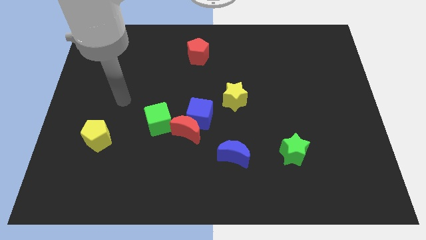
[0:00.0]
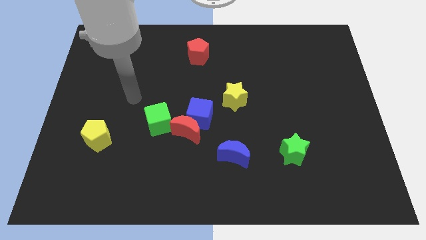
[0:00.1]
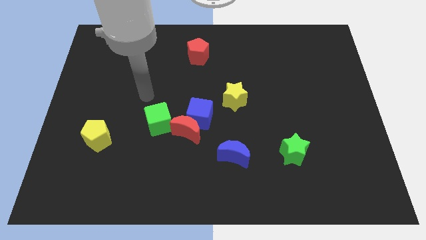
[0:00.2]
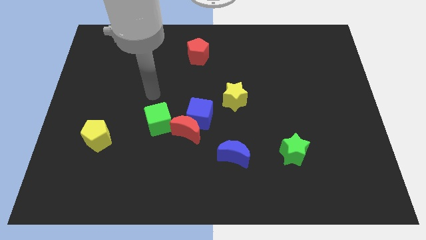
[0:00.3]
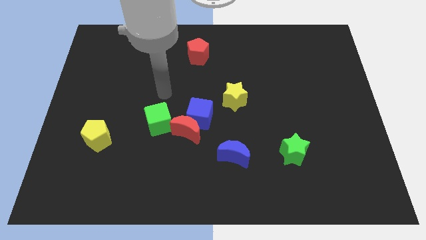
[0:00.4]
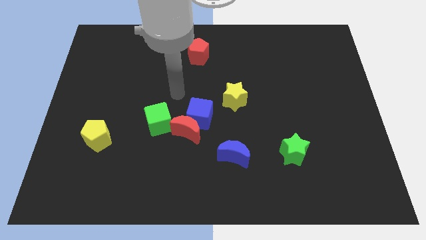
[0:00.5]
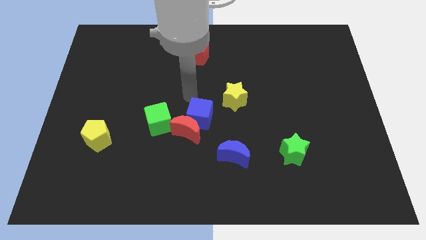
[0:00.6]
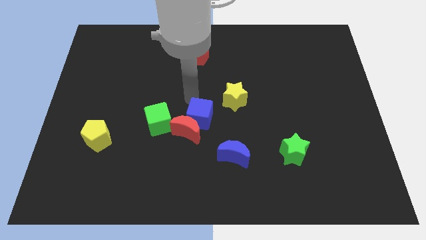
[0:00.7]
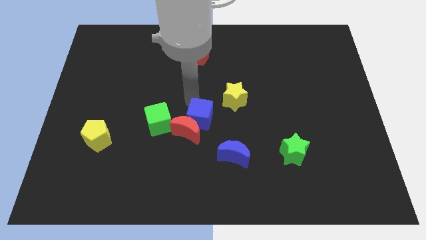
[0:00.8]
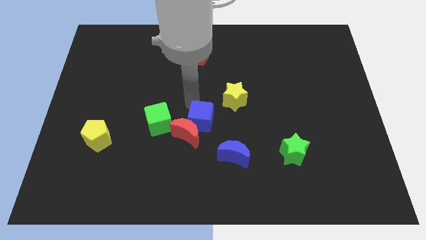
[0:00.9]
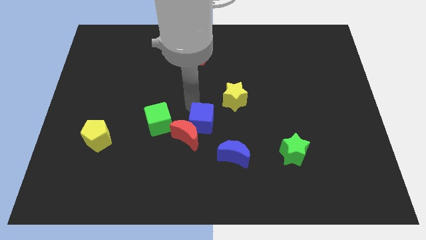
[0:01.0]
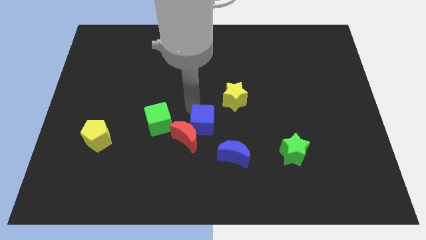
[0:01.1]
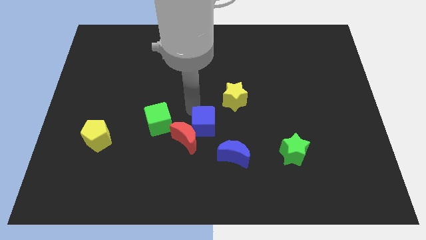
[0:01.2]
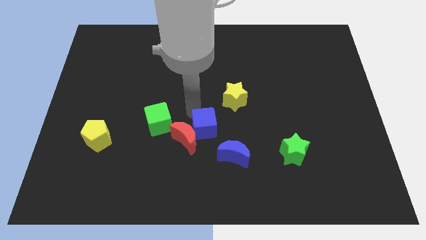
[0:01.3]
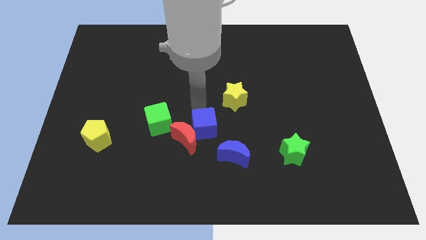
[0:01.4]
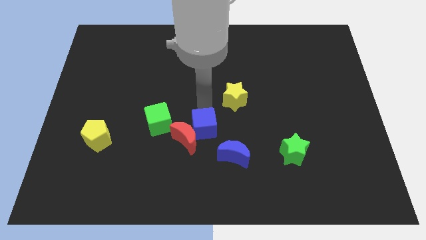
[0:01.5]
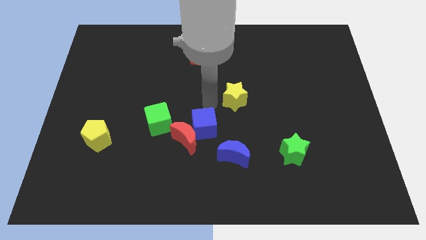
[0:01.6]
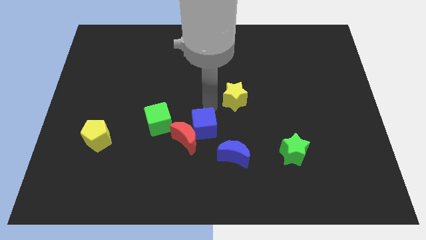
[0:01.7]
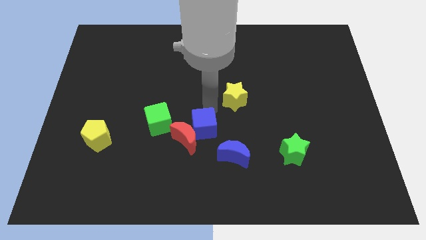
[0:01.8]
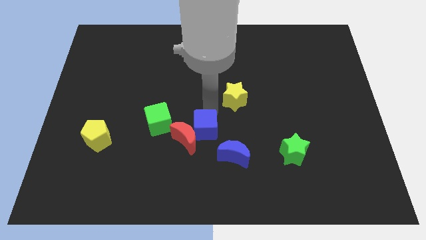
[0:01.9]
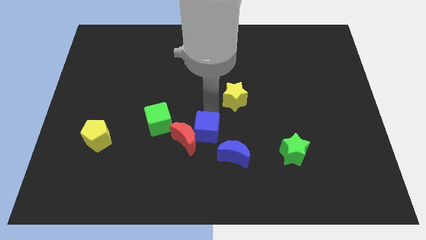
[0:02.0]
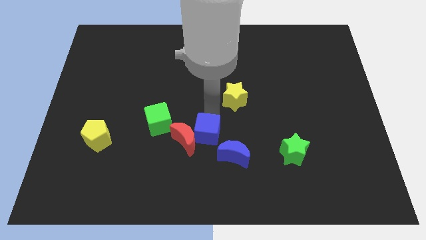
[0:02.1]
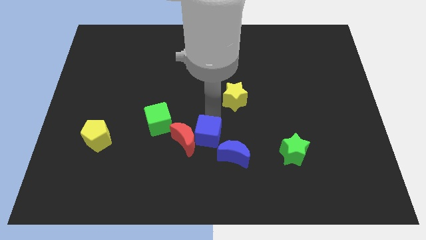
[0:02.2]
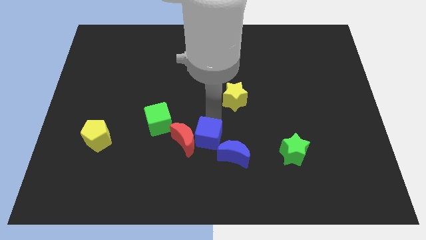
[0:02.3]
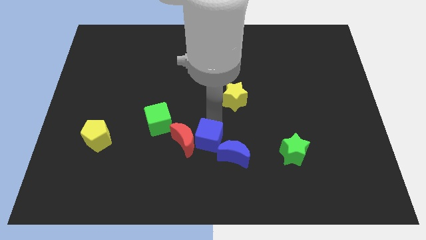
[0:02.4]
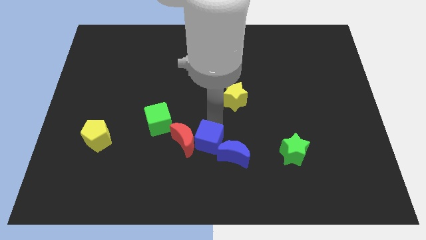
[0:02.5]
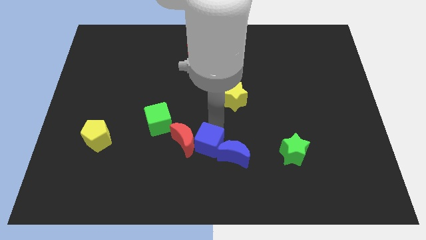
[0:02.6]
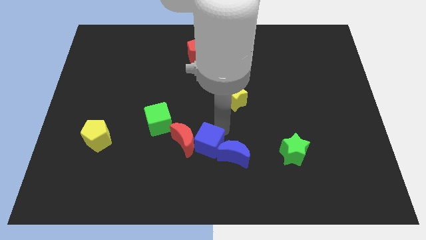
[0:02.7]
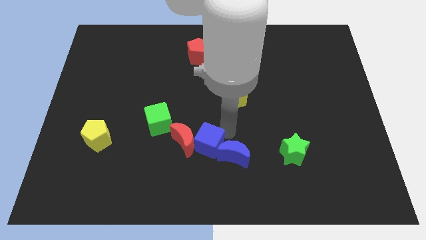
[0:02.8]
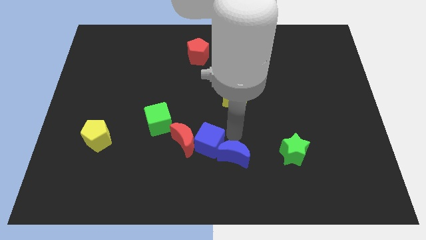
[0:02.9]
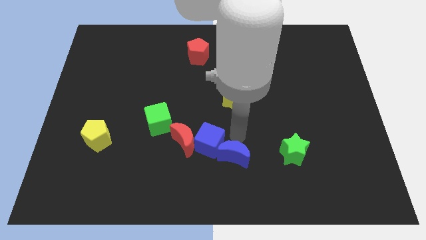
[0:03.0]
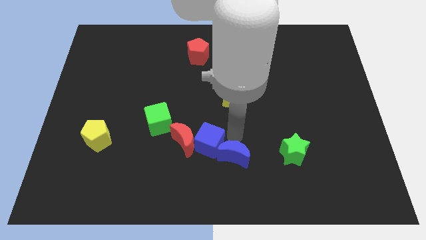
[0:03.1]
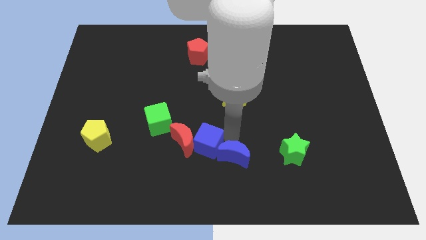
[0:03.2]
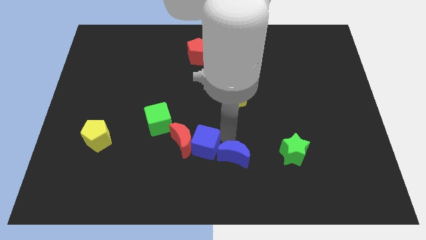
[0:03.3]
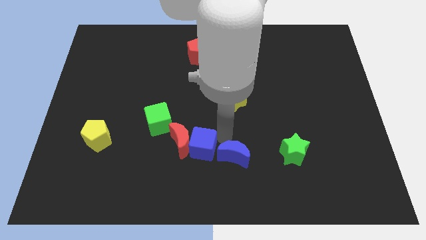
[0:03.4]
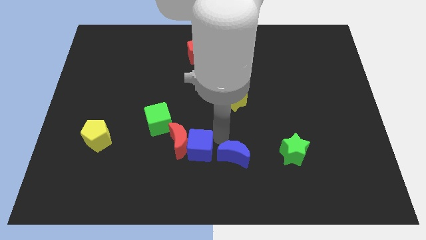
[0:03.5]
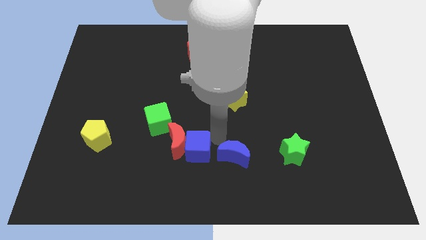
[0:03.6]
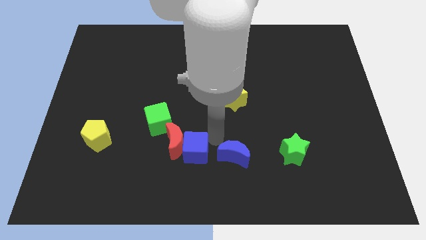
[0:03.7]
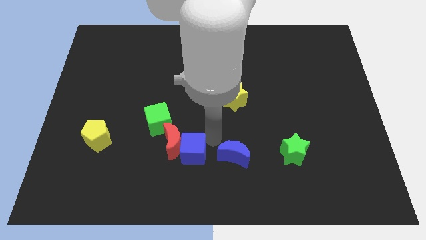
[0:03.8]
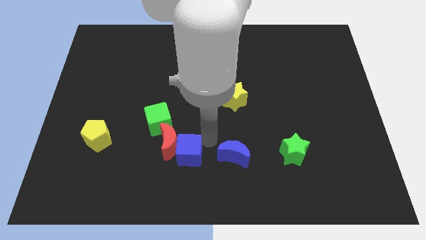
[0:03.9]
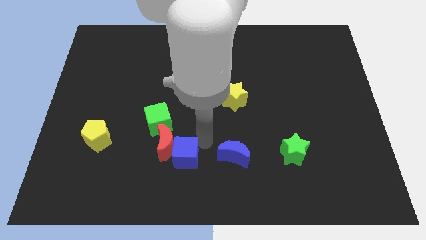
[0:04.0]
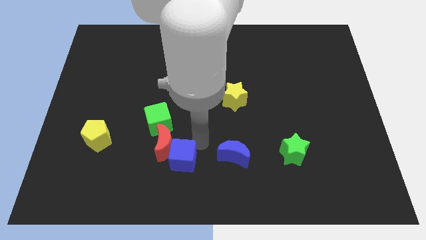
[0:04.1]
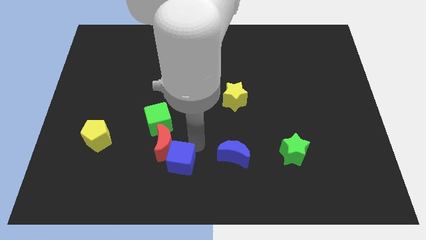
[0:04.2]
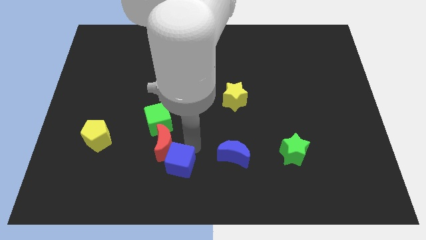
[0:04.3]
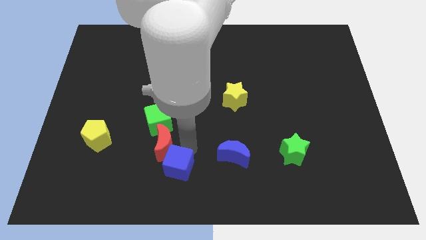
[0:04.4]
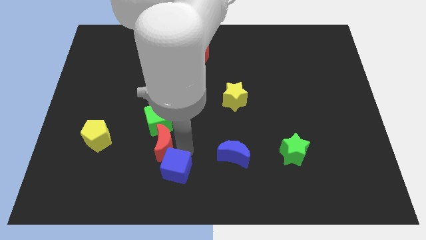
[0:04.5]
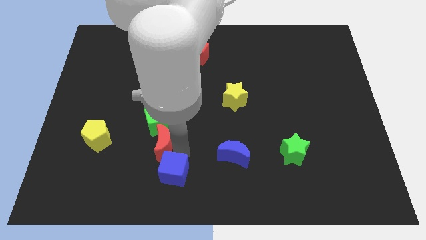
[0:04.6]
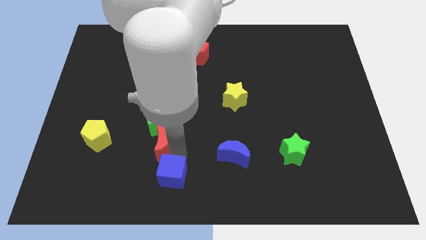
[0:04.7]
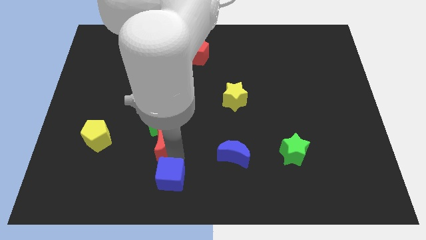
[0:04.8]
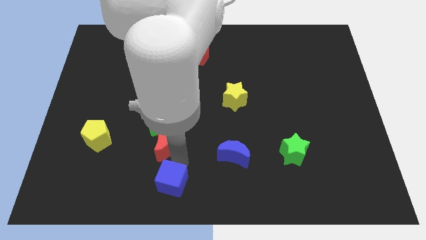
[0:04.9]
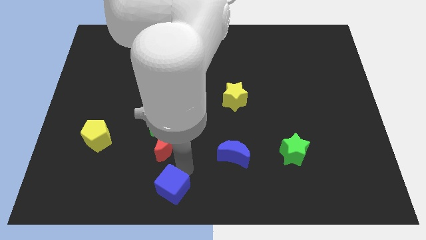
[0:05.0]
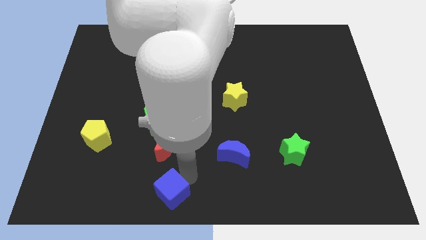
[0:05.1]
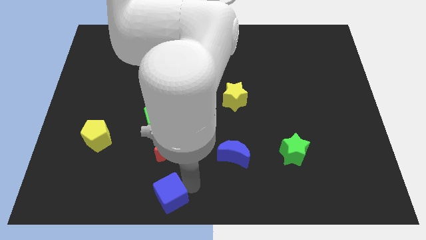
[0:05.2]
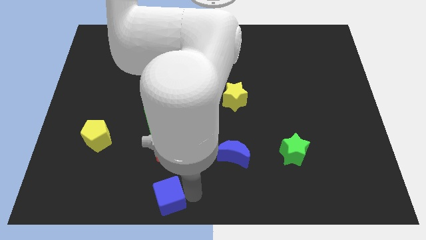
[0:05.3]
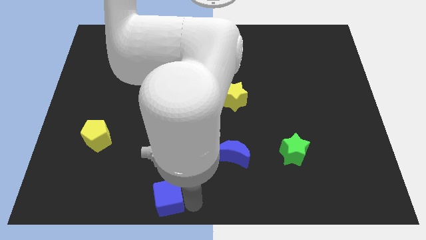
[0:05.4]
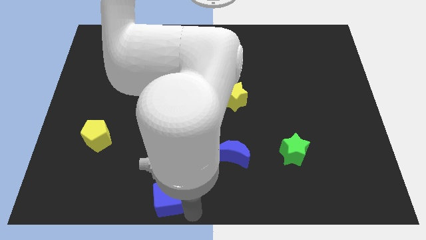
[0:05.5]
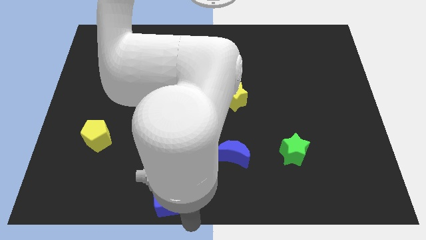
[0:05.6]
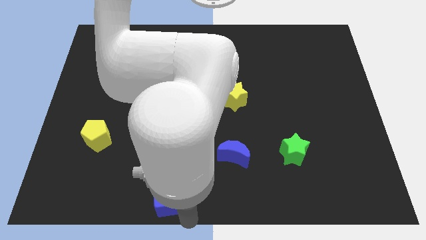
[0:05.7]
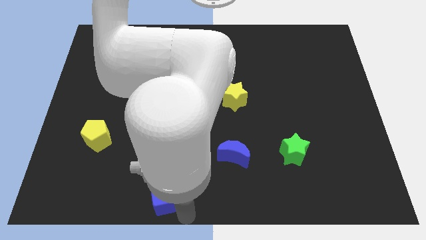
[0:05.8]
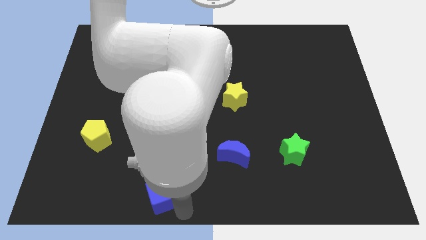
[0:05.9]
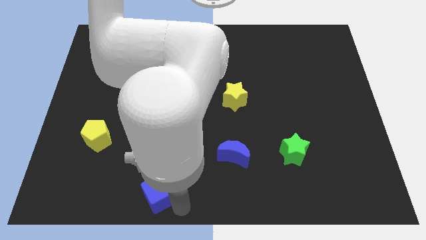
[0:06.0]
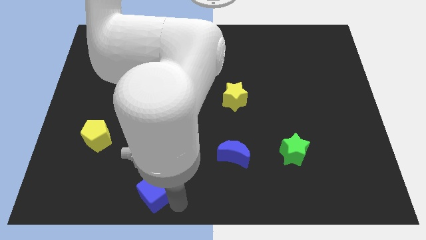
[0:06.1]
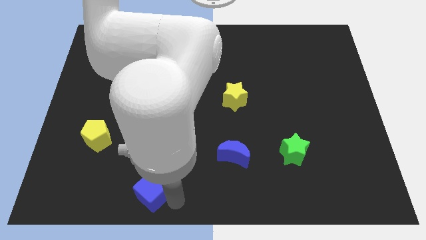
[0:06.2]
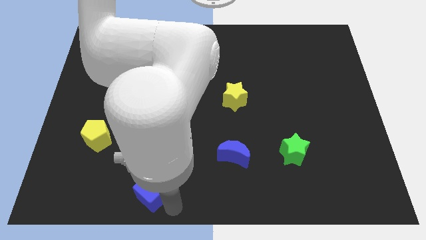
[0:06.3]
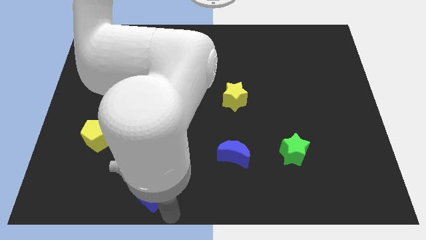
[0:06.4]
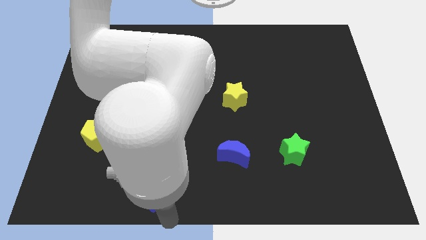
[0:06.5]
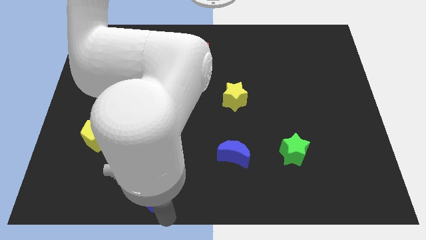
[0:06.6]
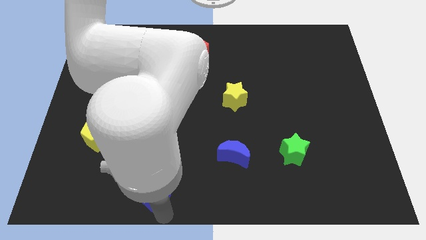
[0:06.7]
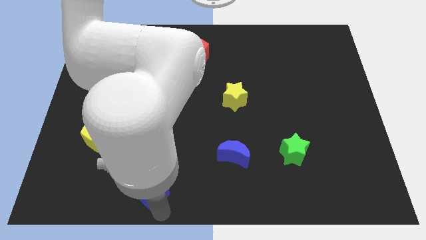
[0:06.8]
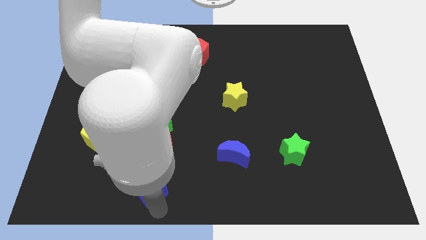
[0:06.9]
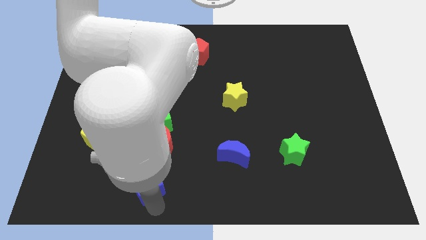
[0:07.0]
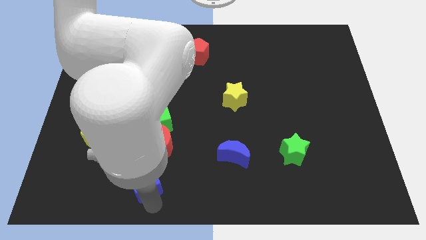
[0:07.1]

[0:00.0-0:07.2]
slide the blue cube to the bottom left of the red moon

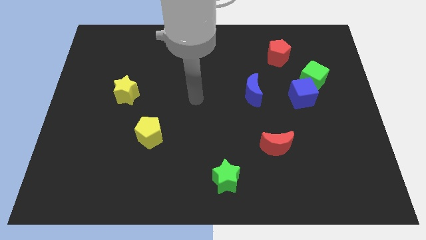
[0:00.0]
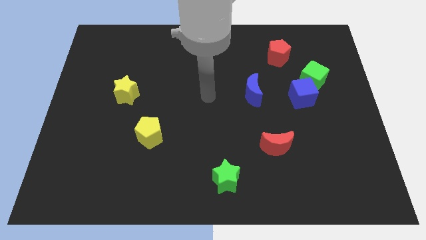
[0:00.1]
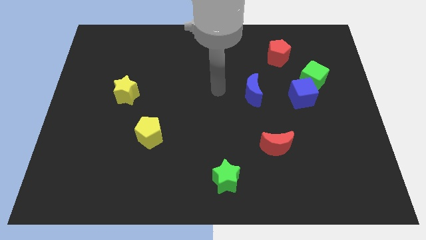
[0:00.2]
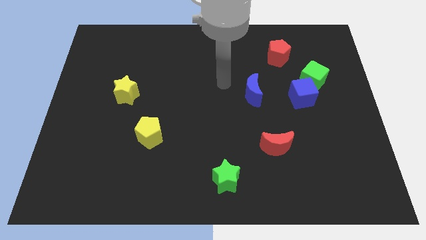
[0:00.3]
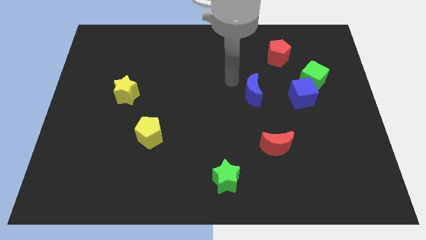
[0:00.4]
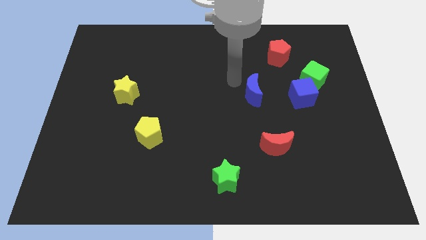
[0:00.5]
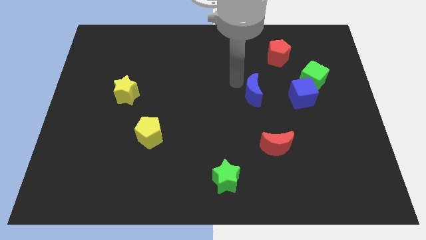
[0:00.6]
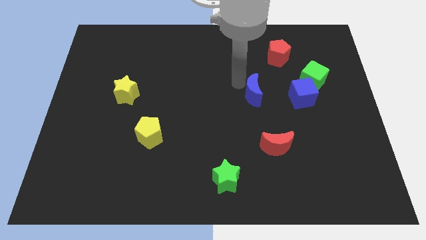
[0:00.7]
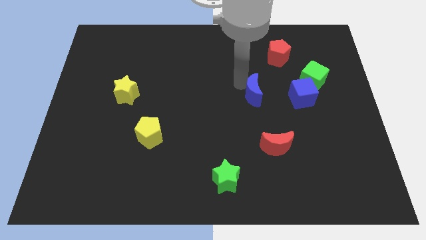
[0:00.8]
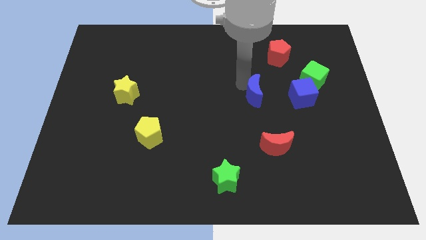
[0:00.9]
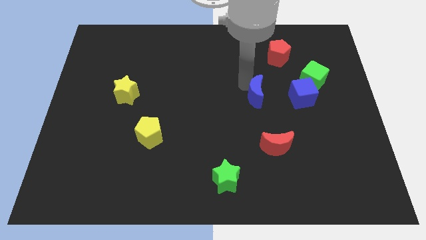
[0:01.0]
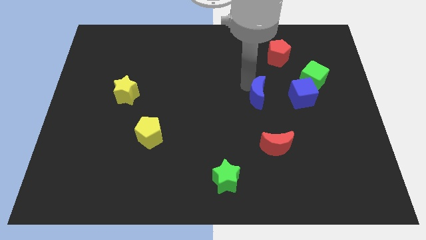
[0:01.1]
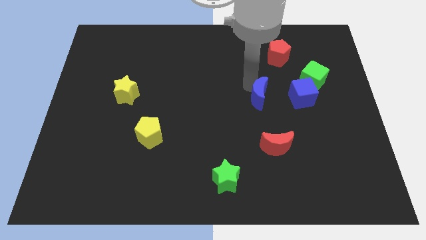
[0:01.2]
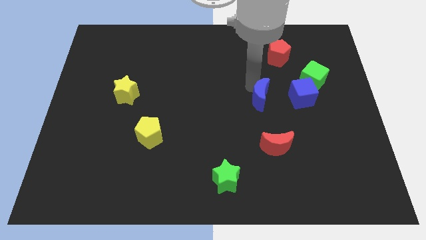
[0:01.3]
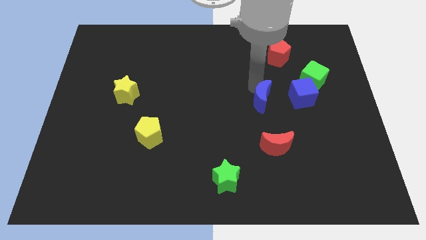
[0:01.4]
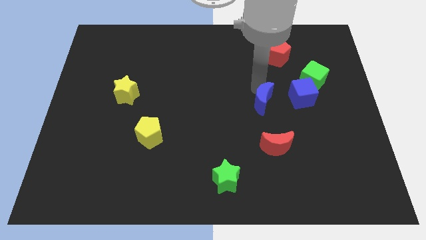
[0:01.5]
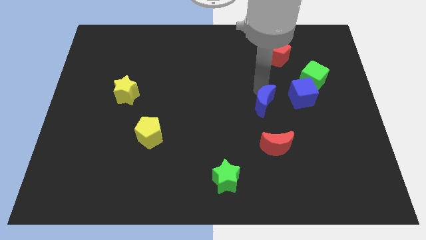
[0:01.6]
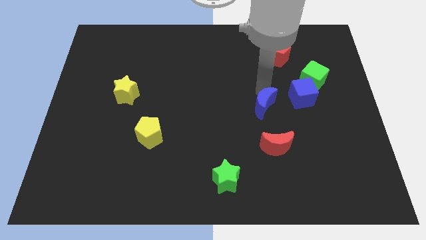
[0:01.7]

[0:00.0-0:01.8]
push the blue moon to the bottom left side of the blue cube
